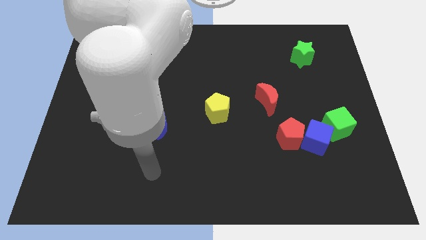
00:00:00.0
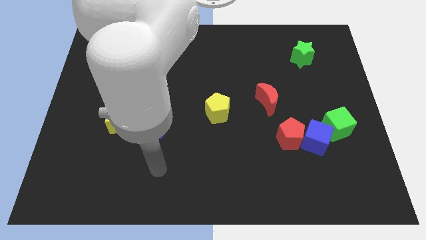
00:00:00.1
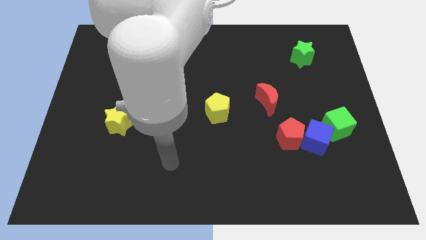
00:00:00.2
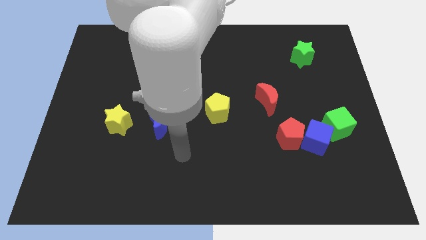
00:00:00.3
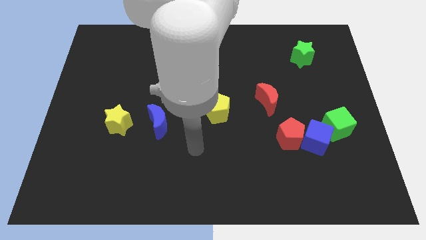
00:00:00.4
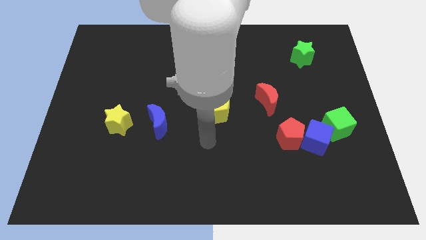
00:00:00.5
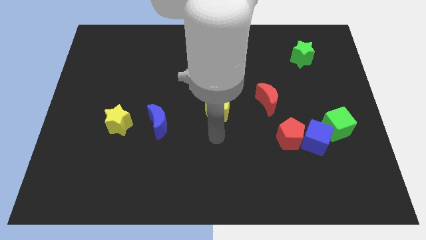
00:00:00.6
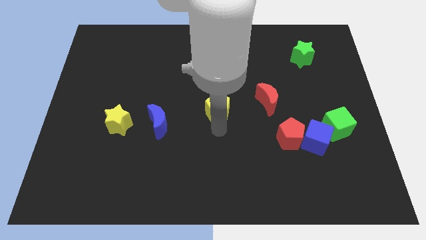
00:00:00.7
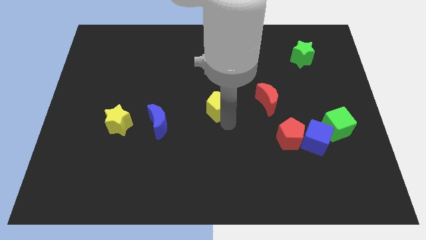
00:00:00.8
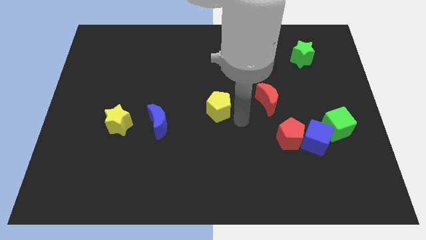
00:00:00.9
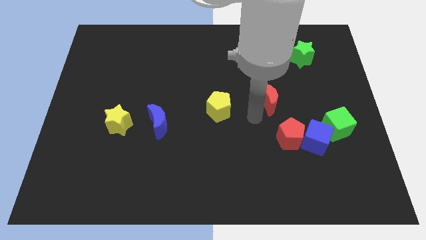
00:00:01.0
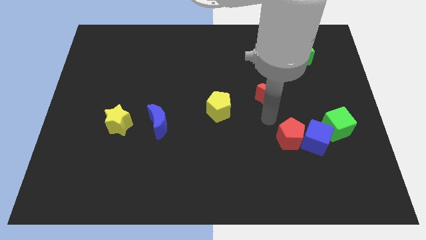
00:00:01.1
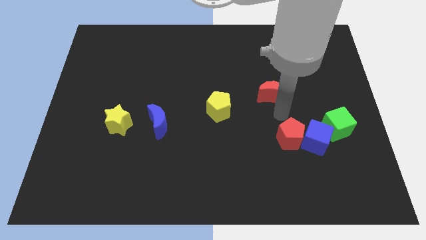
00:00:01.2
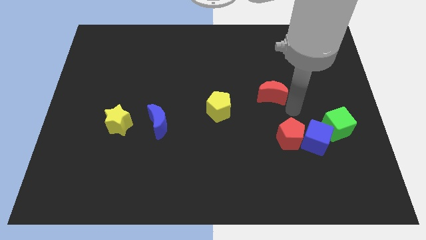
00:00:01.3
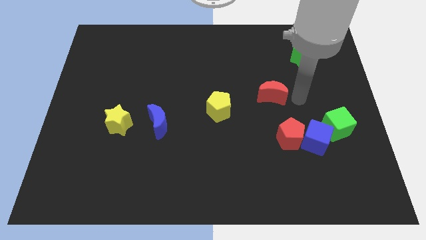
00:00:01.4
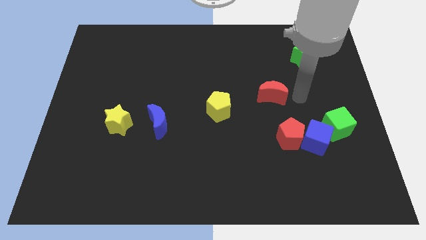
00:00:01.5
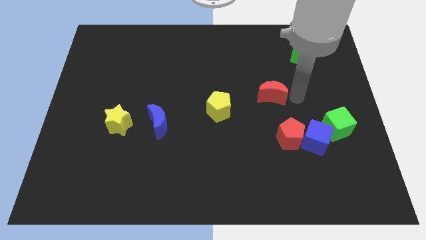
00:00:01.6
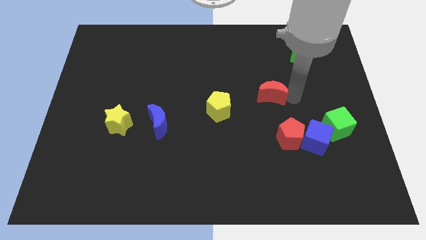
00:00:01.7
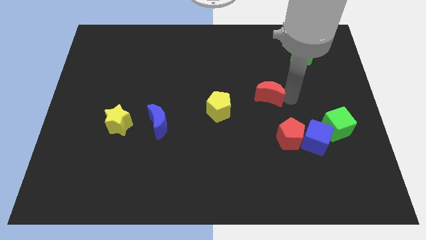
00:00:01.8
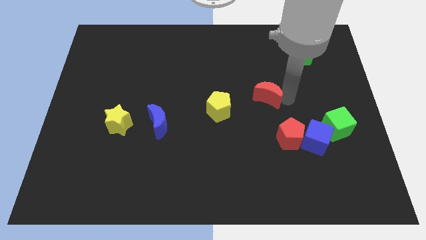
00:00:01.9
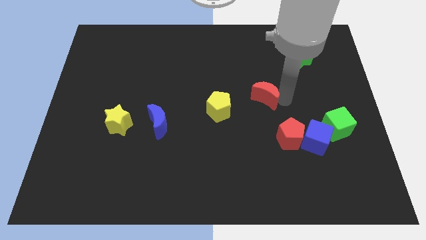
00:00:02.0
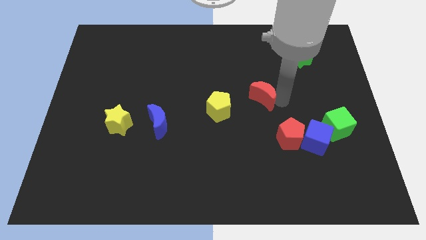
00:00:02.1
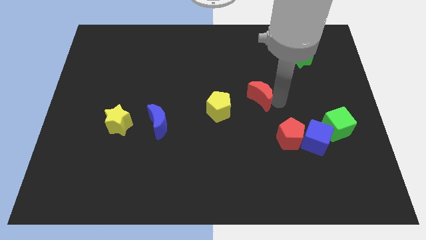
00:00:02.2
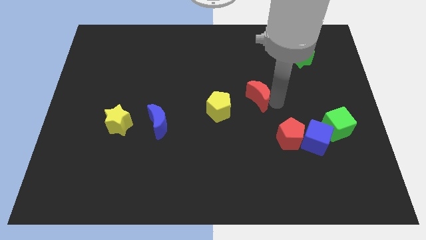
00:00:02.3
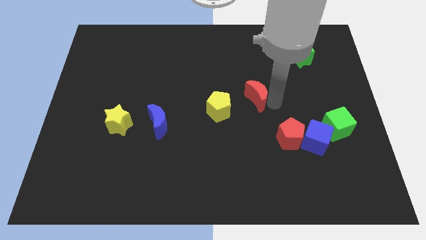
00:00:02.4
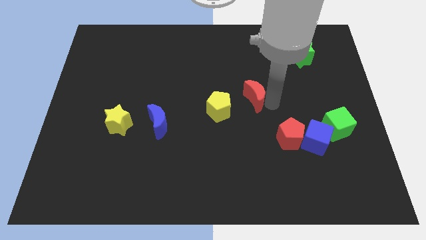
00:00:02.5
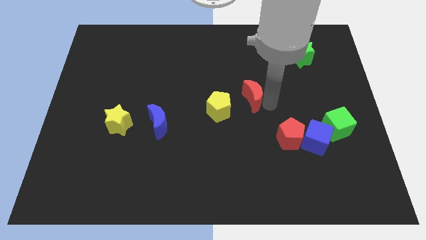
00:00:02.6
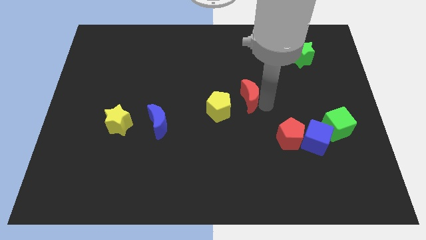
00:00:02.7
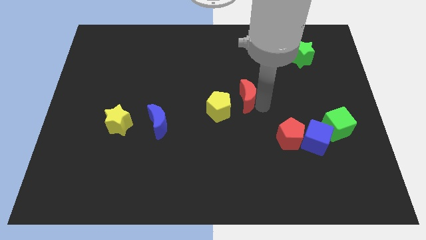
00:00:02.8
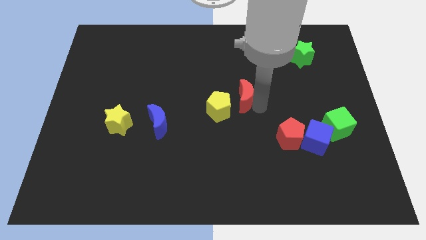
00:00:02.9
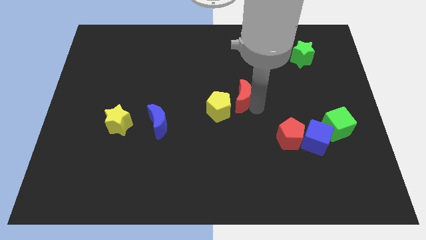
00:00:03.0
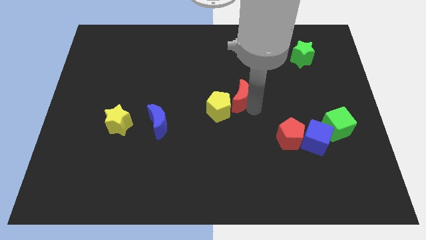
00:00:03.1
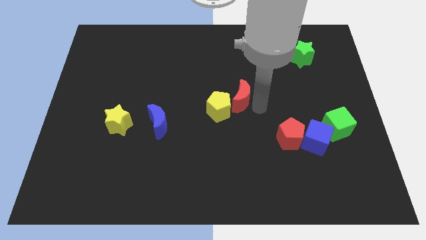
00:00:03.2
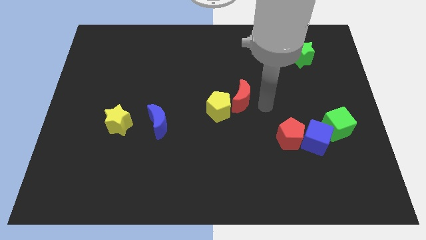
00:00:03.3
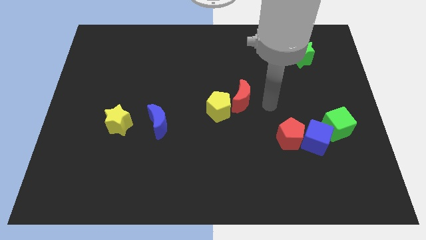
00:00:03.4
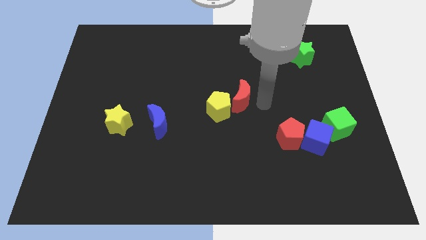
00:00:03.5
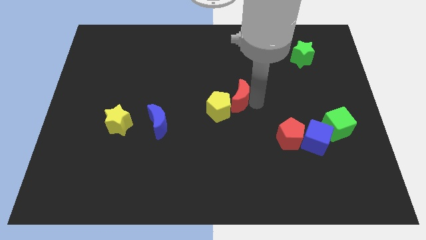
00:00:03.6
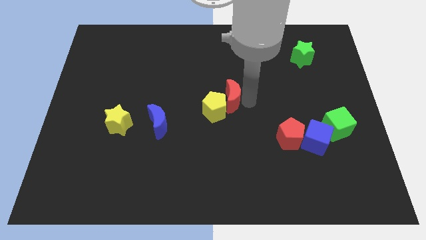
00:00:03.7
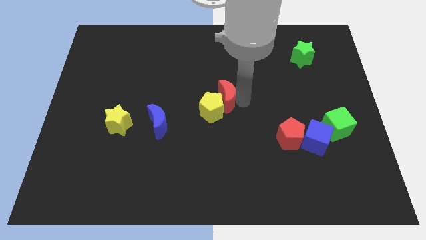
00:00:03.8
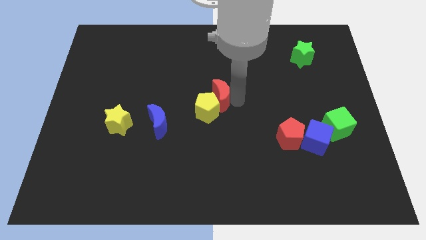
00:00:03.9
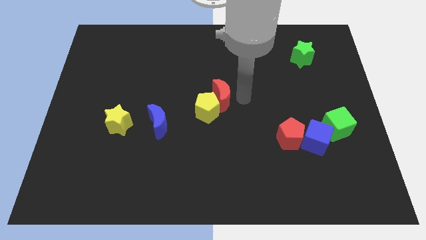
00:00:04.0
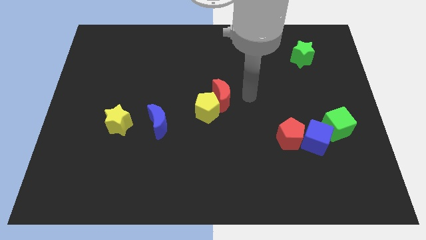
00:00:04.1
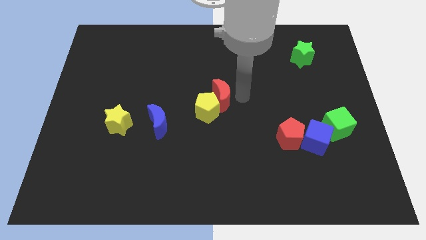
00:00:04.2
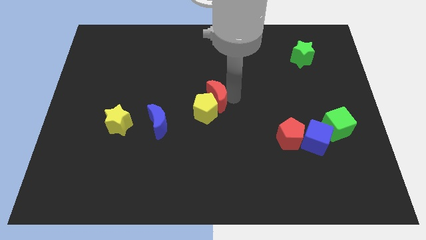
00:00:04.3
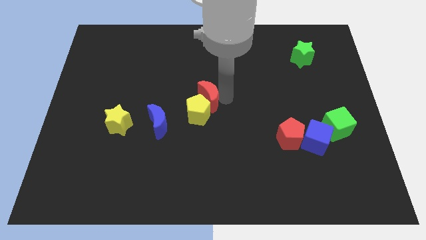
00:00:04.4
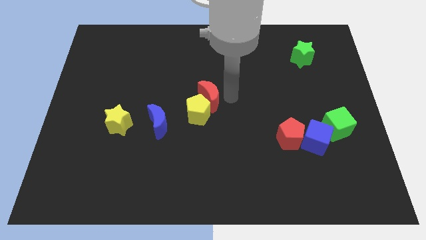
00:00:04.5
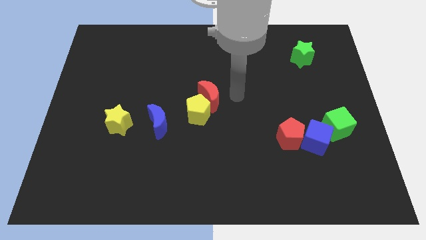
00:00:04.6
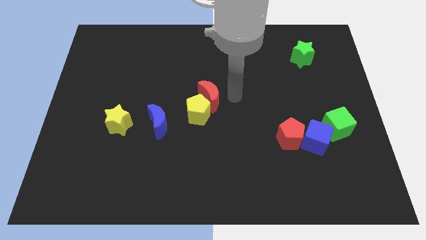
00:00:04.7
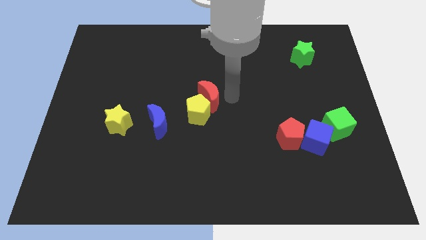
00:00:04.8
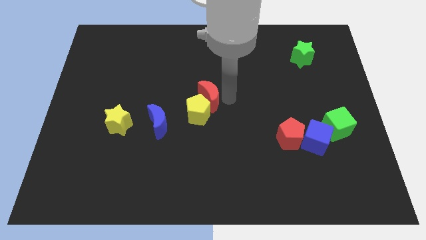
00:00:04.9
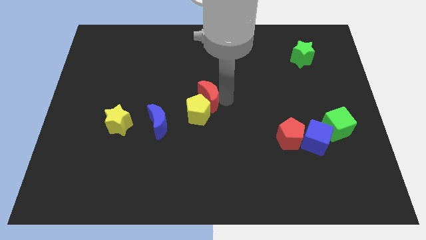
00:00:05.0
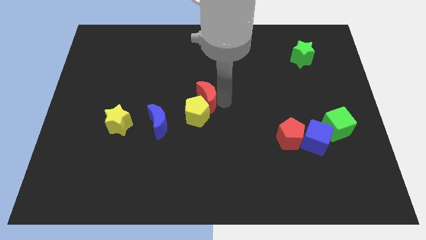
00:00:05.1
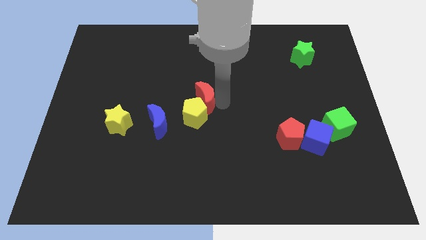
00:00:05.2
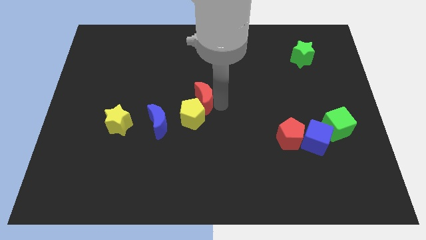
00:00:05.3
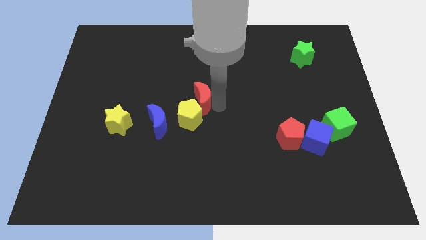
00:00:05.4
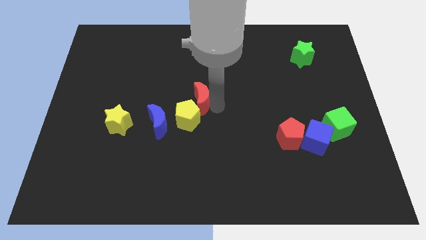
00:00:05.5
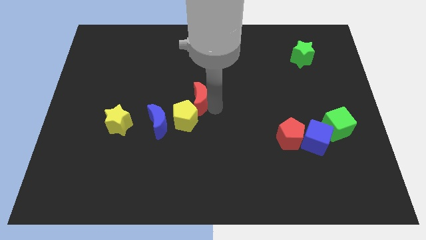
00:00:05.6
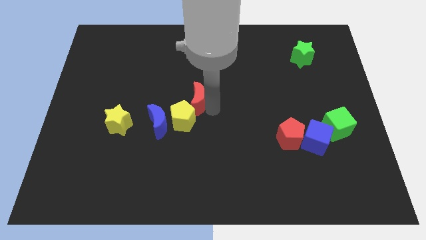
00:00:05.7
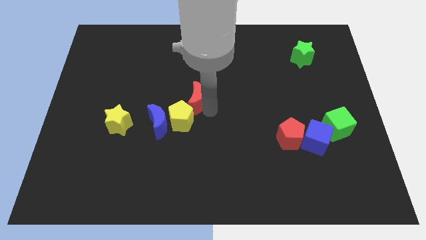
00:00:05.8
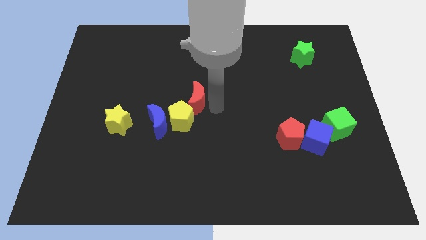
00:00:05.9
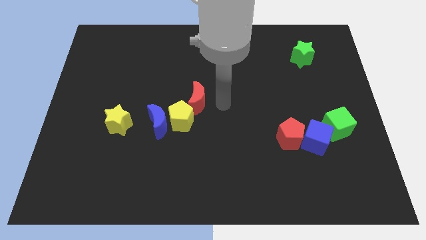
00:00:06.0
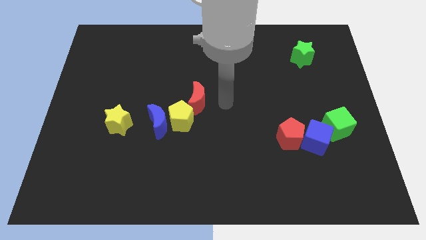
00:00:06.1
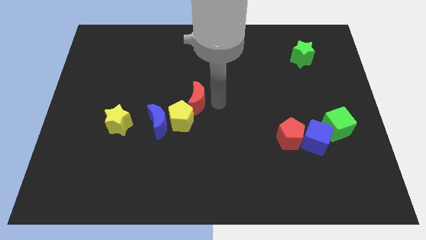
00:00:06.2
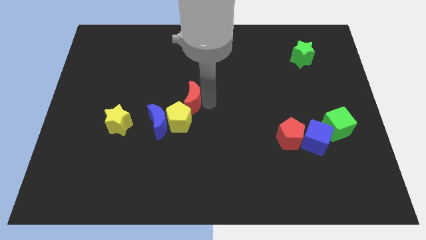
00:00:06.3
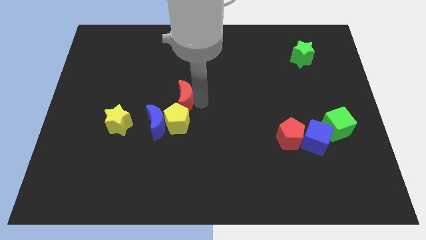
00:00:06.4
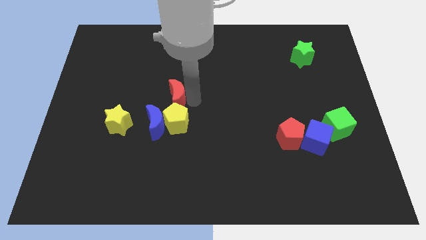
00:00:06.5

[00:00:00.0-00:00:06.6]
move the red moon to the left

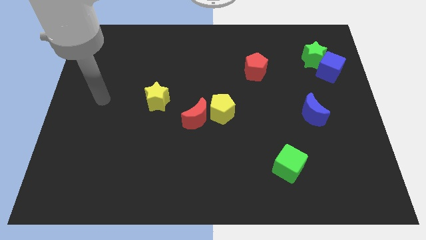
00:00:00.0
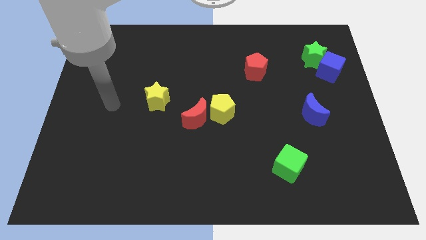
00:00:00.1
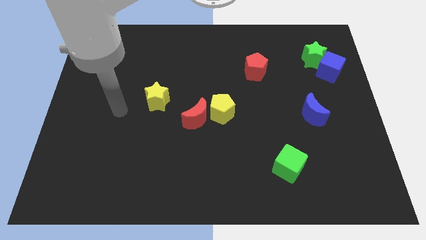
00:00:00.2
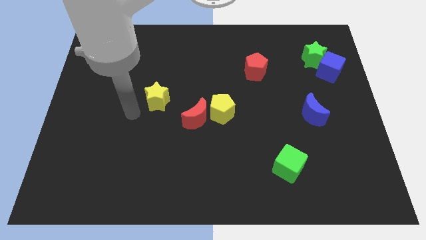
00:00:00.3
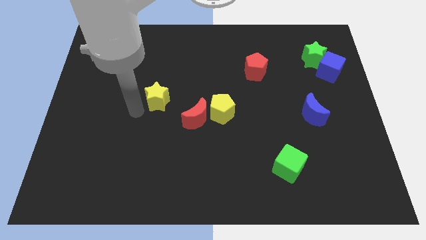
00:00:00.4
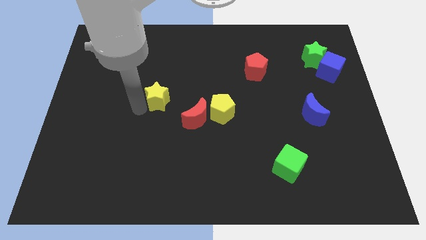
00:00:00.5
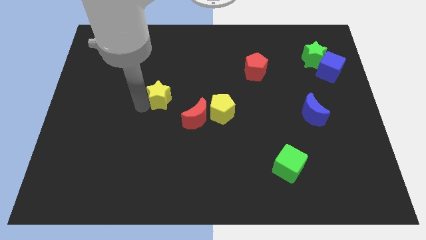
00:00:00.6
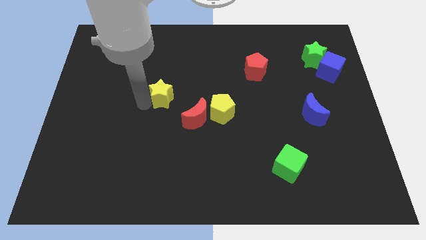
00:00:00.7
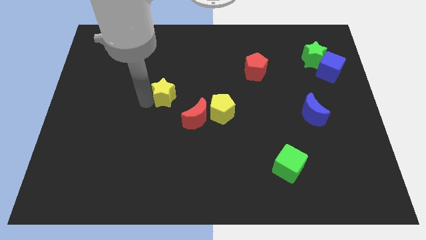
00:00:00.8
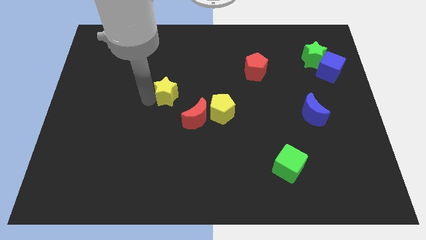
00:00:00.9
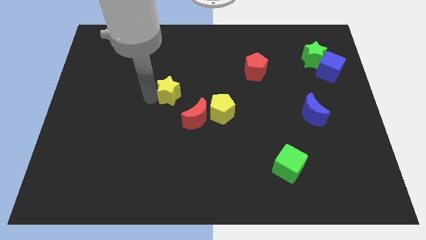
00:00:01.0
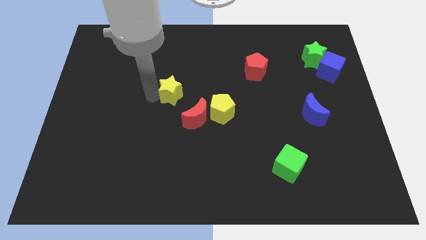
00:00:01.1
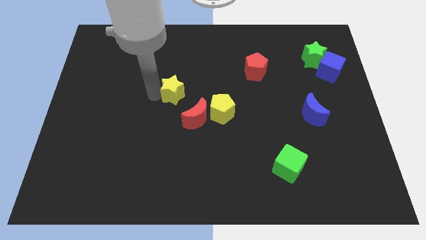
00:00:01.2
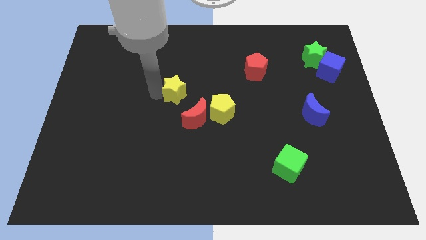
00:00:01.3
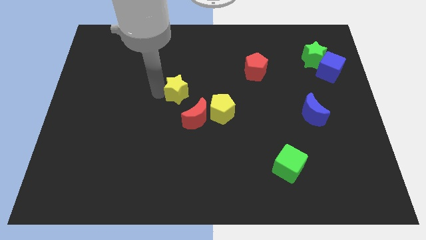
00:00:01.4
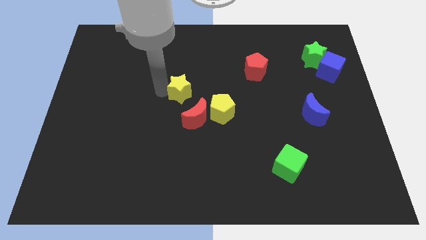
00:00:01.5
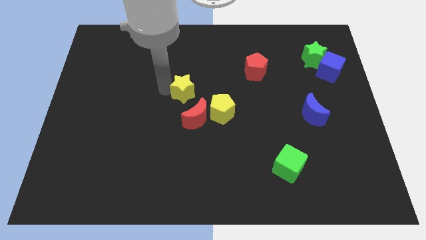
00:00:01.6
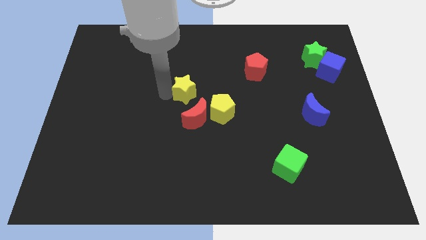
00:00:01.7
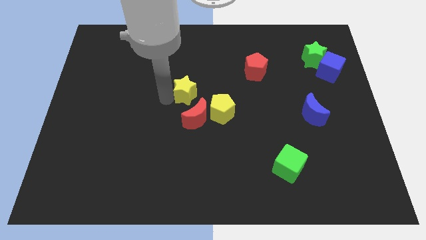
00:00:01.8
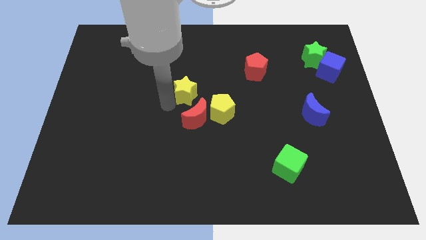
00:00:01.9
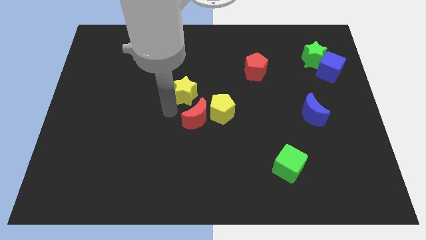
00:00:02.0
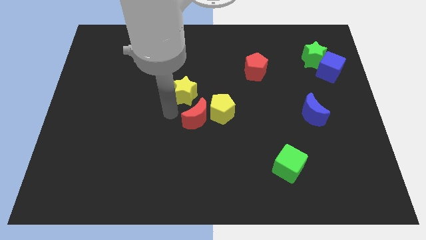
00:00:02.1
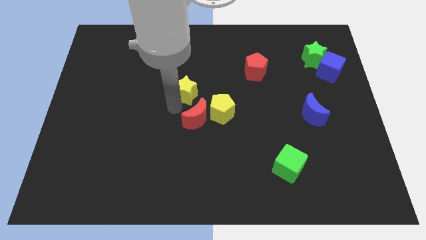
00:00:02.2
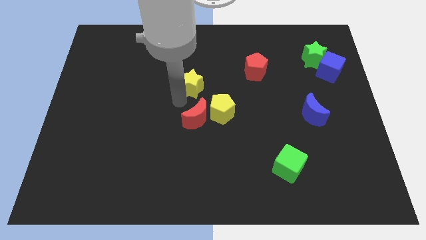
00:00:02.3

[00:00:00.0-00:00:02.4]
move the yellow star a little bit upwards and right diagonally
